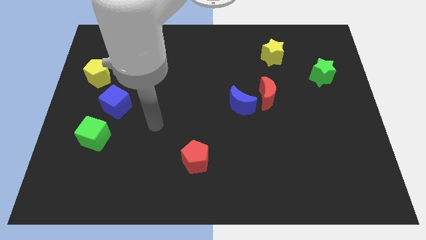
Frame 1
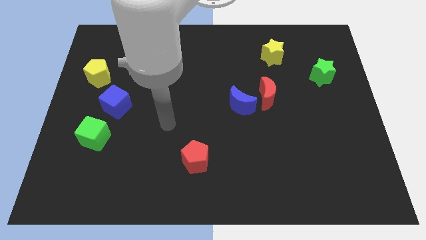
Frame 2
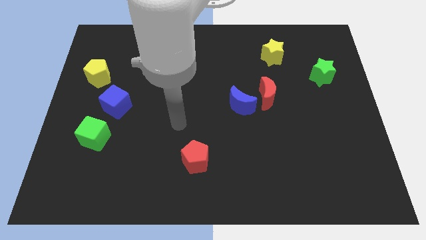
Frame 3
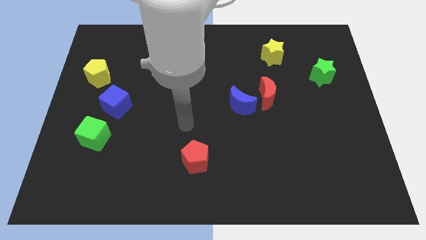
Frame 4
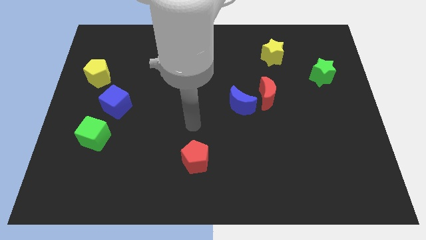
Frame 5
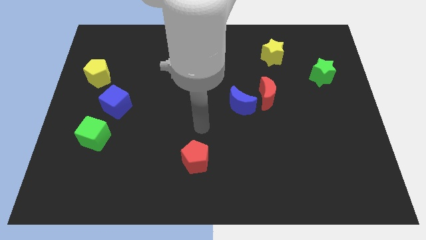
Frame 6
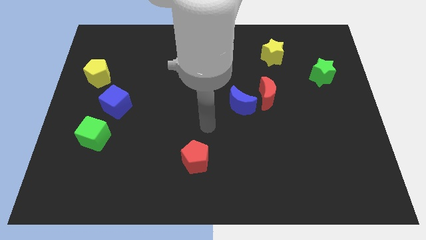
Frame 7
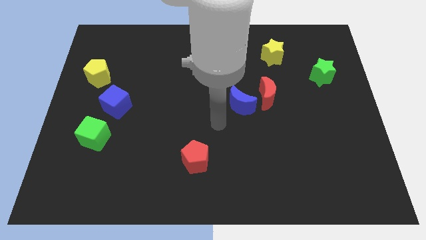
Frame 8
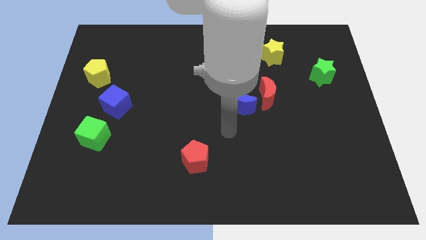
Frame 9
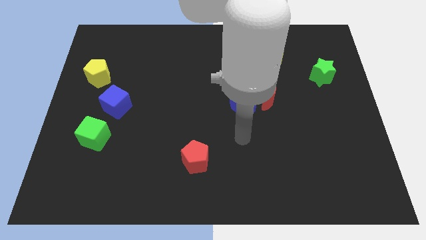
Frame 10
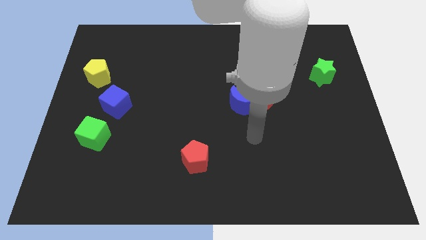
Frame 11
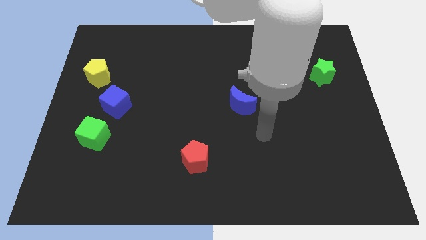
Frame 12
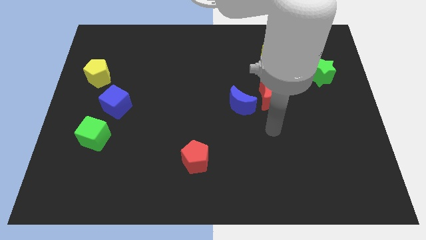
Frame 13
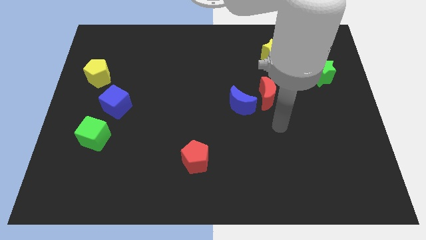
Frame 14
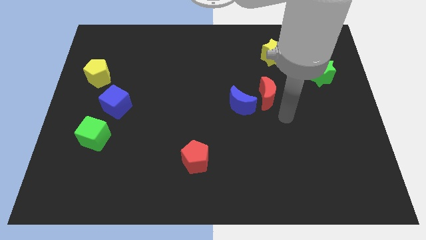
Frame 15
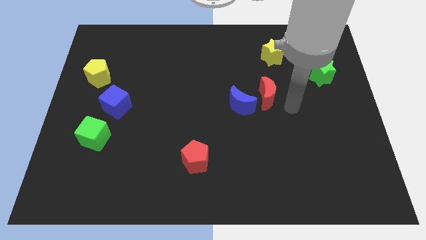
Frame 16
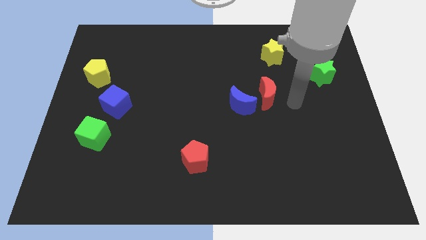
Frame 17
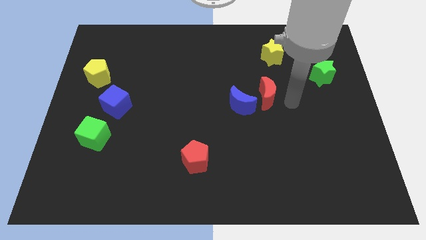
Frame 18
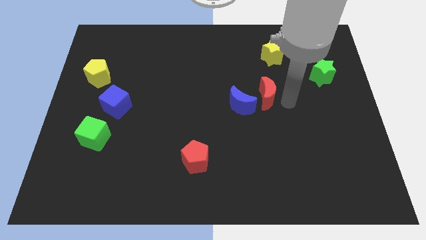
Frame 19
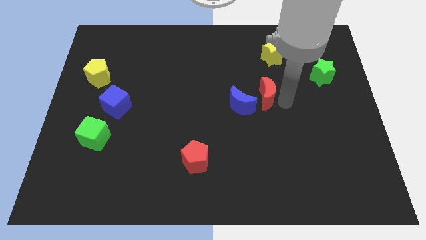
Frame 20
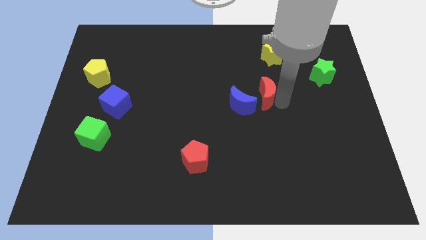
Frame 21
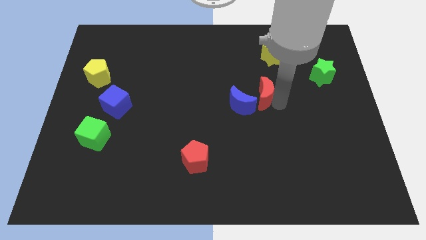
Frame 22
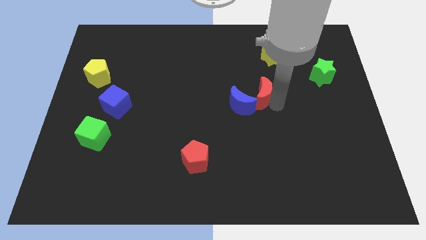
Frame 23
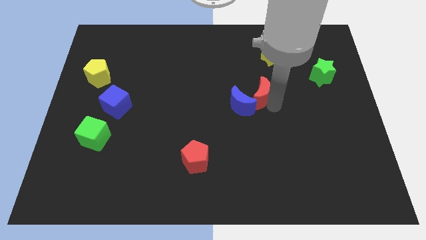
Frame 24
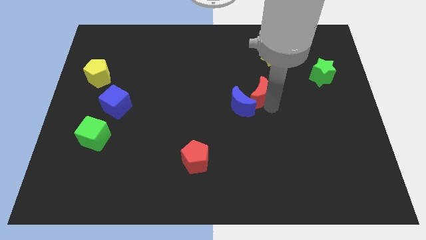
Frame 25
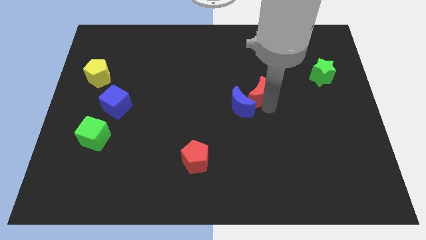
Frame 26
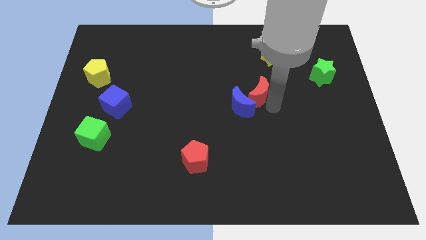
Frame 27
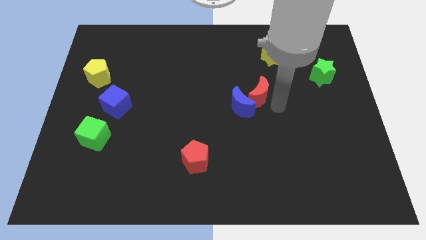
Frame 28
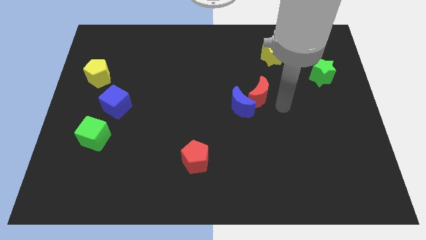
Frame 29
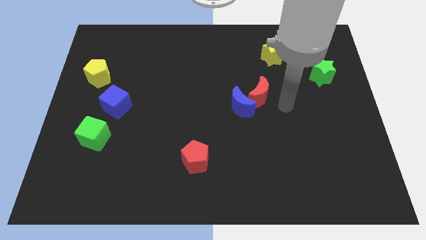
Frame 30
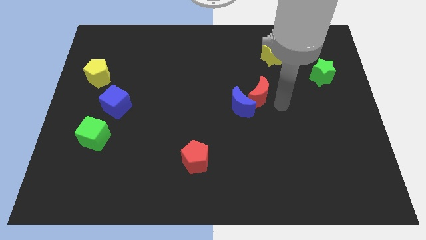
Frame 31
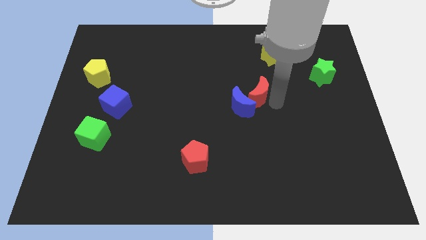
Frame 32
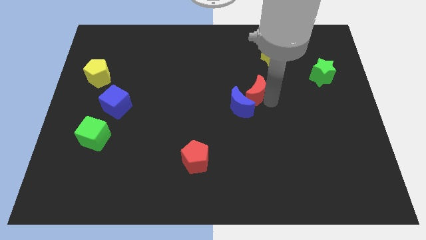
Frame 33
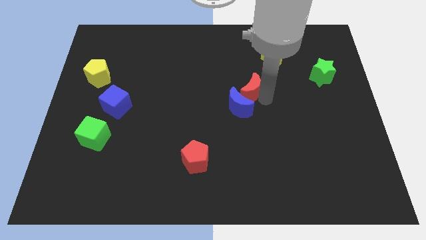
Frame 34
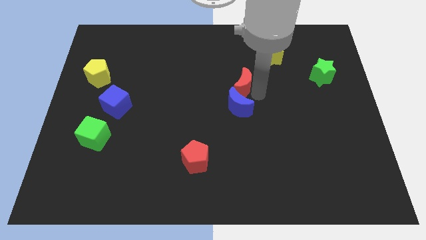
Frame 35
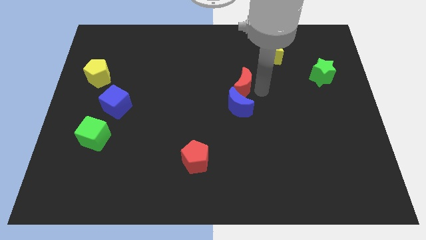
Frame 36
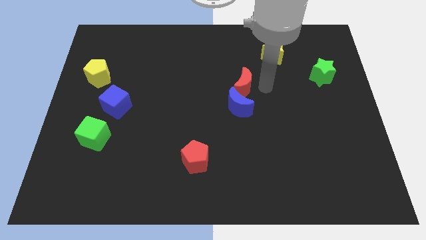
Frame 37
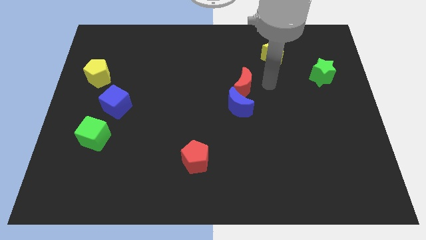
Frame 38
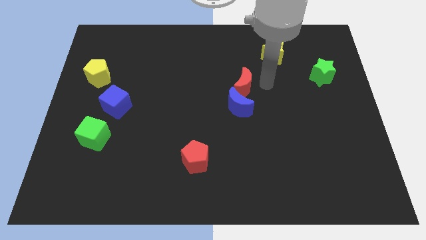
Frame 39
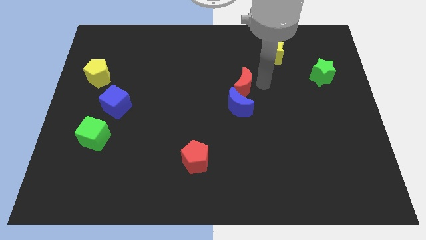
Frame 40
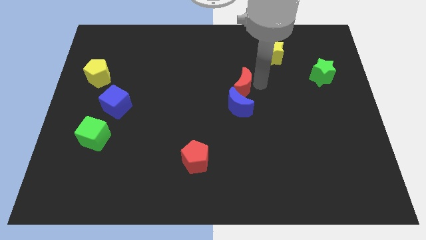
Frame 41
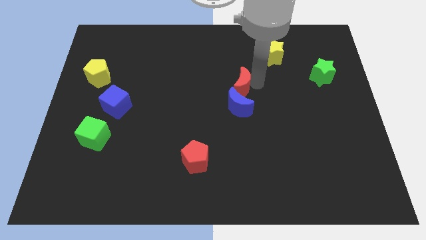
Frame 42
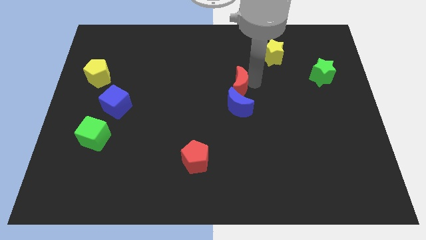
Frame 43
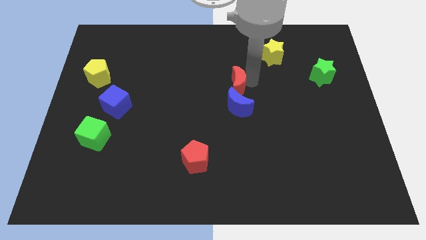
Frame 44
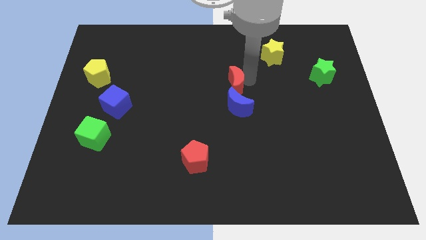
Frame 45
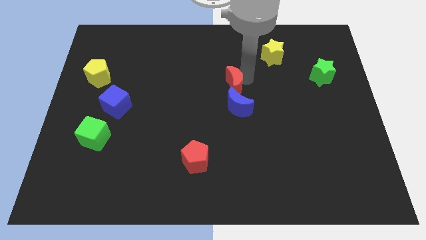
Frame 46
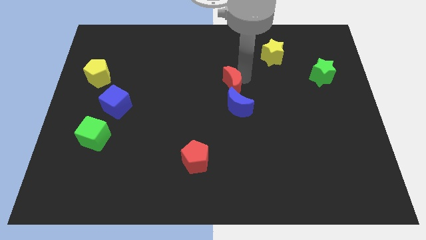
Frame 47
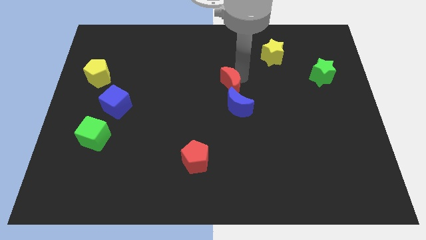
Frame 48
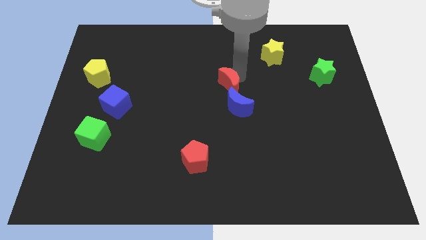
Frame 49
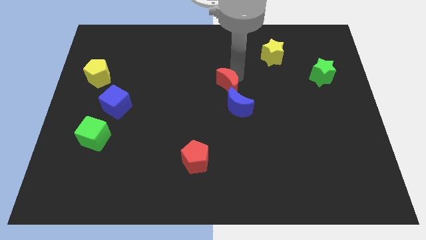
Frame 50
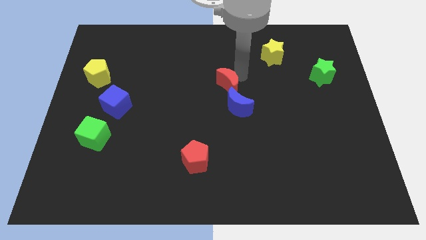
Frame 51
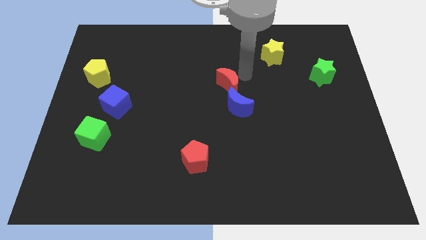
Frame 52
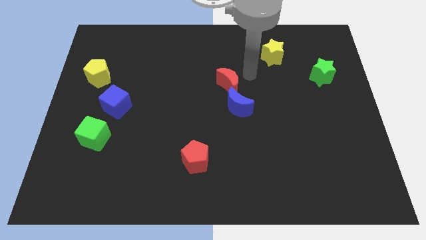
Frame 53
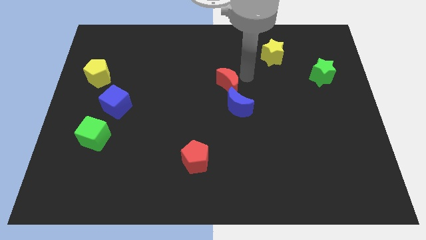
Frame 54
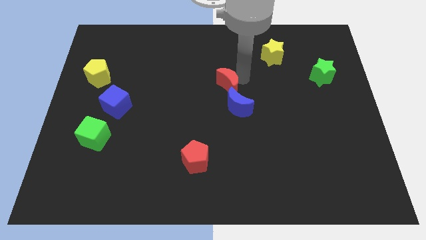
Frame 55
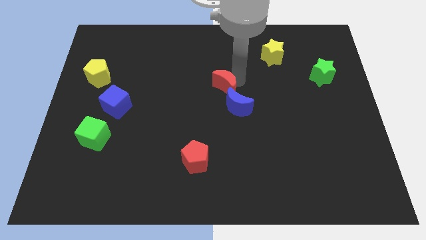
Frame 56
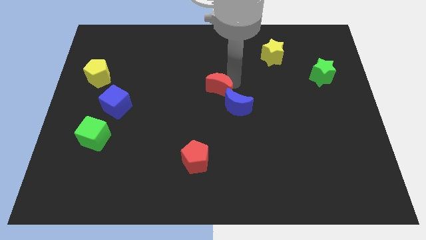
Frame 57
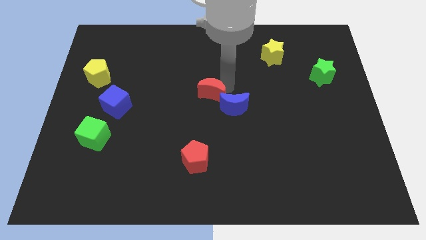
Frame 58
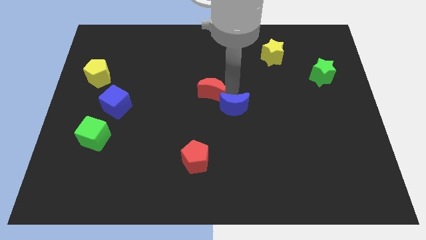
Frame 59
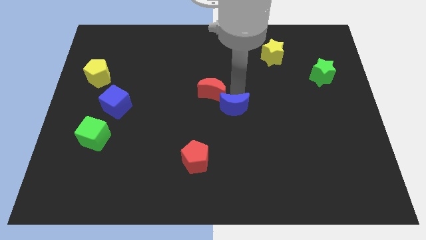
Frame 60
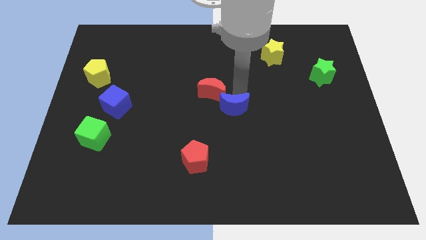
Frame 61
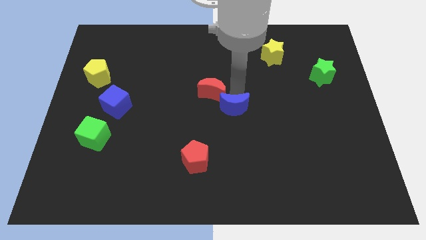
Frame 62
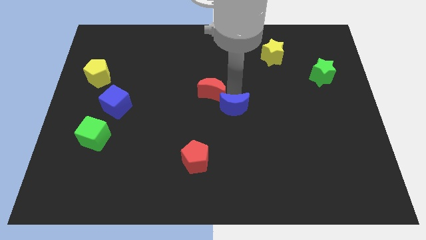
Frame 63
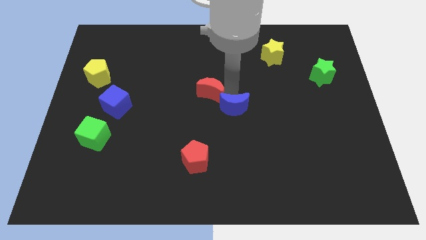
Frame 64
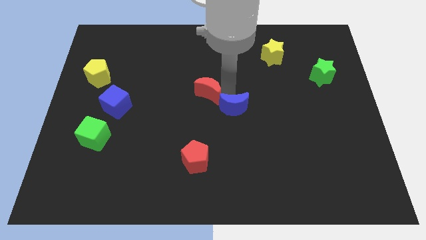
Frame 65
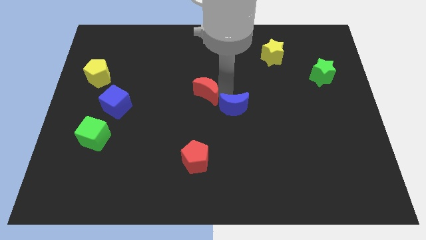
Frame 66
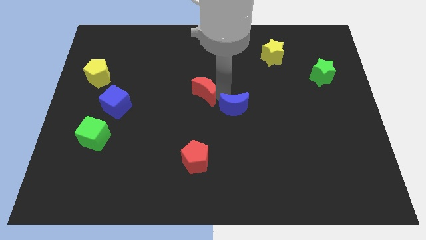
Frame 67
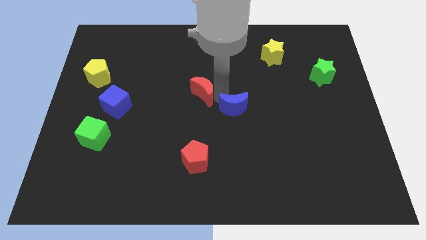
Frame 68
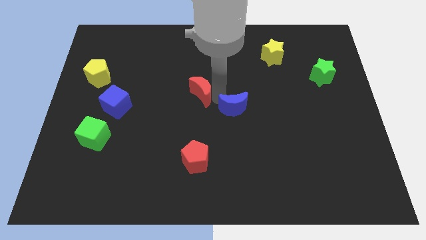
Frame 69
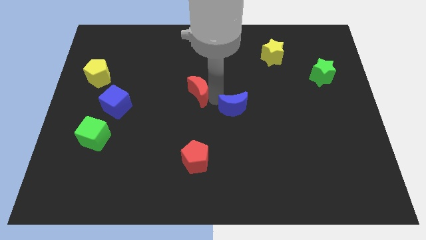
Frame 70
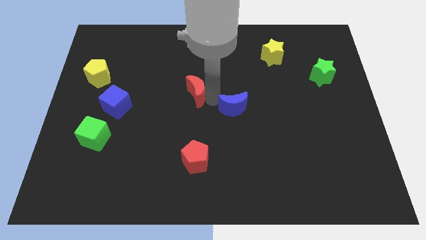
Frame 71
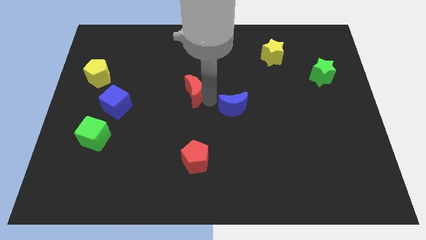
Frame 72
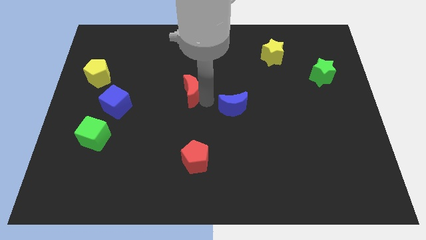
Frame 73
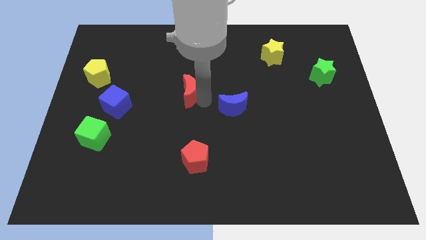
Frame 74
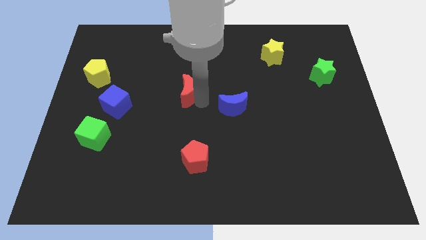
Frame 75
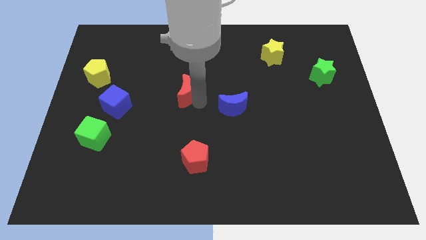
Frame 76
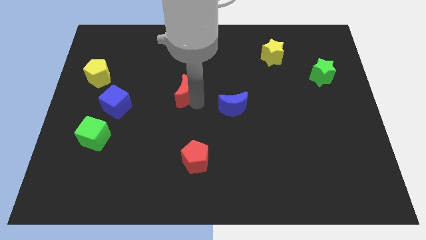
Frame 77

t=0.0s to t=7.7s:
move the red moon left

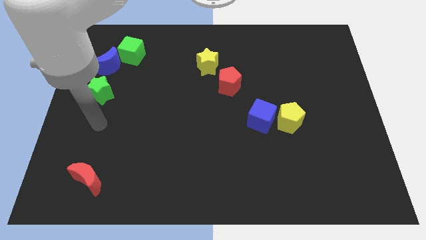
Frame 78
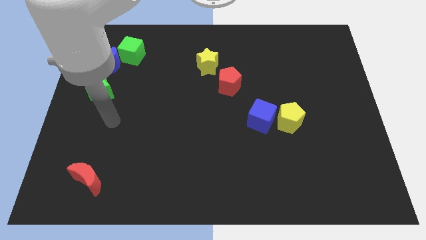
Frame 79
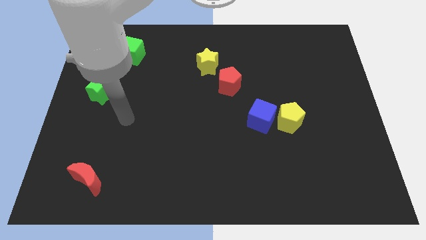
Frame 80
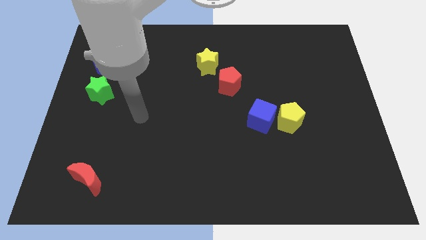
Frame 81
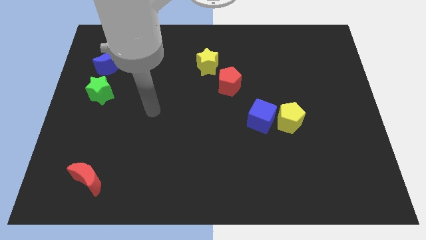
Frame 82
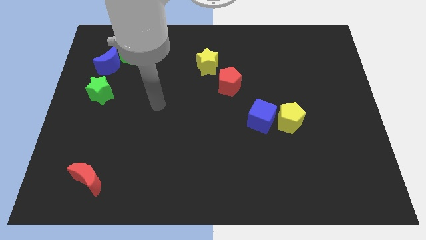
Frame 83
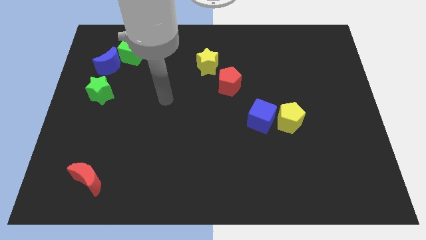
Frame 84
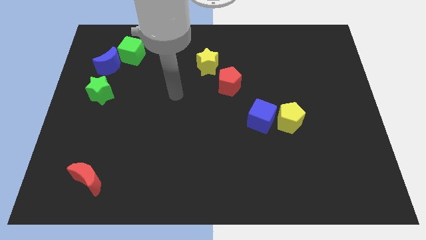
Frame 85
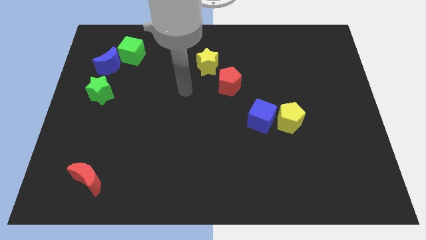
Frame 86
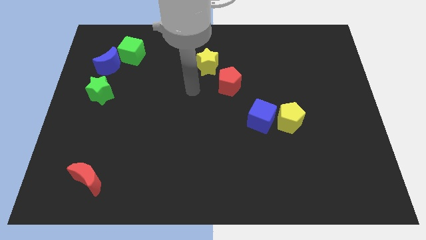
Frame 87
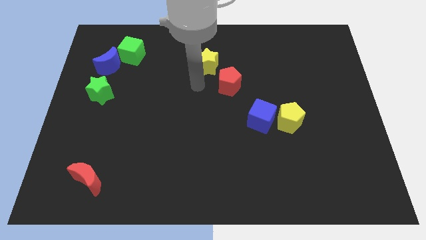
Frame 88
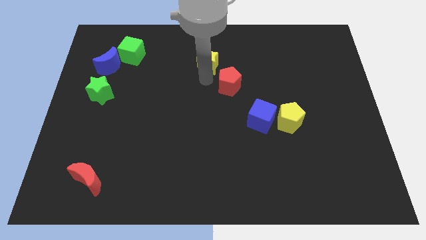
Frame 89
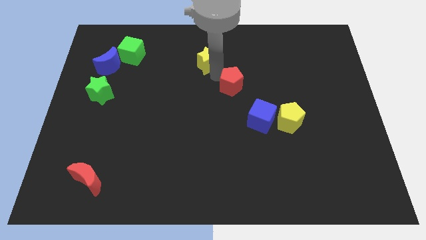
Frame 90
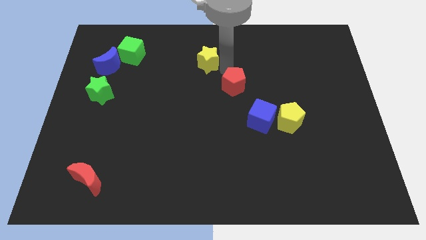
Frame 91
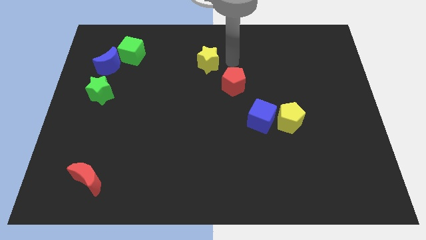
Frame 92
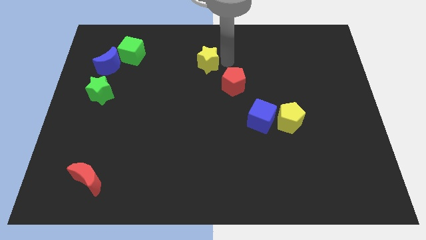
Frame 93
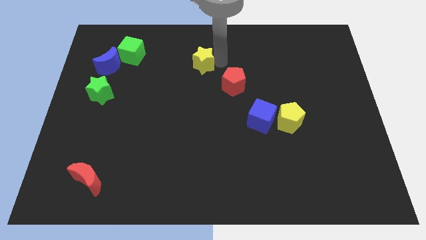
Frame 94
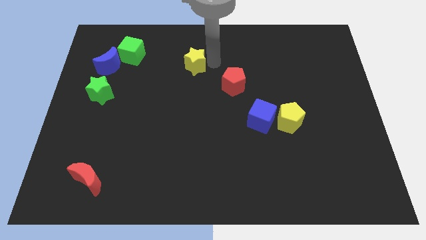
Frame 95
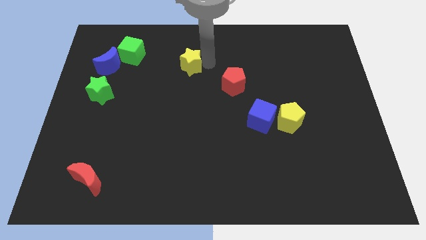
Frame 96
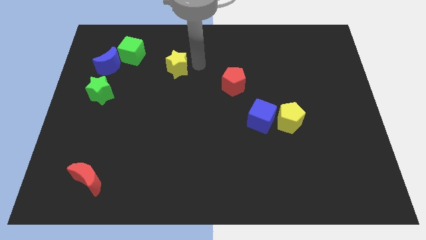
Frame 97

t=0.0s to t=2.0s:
slightly push the yellow star left
